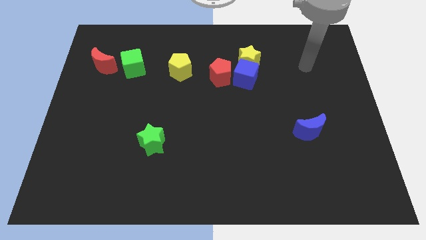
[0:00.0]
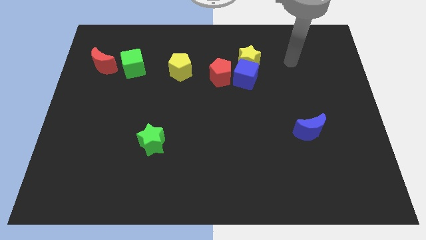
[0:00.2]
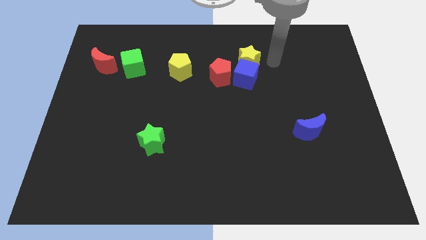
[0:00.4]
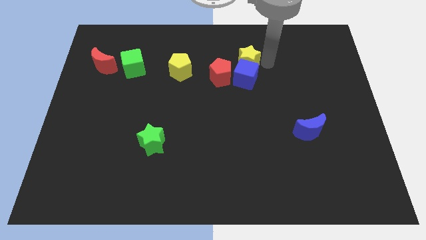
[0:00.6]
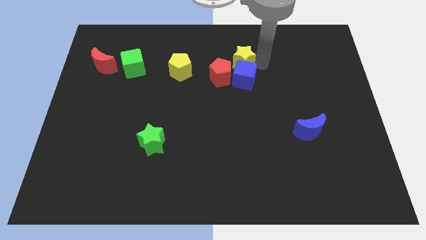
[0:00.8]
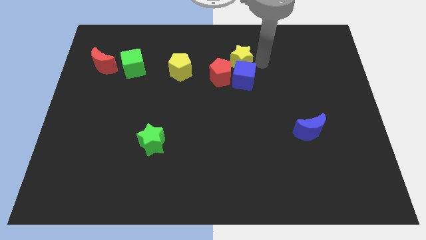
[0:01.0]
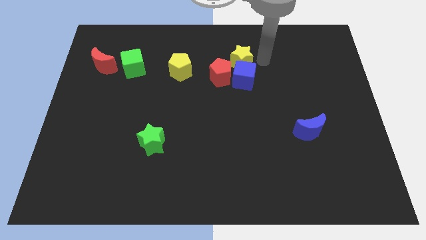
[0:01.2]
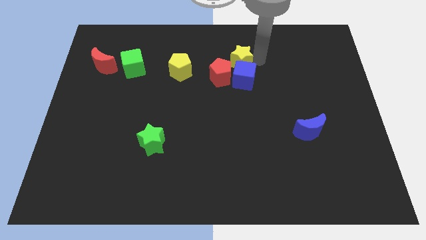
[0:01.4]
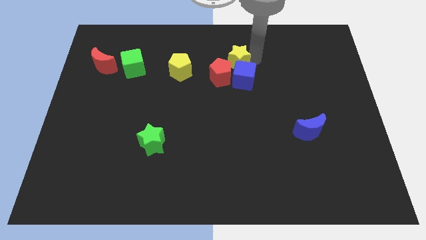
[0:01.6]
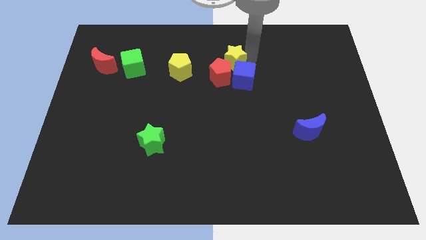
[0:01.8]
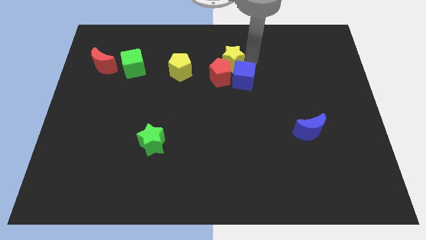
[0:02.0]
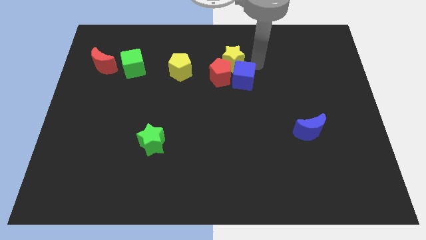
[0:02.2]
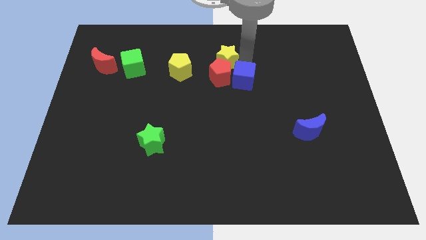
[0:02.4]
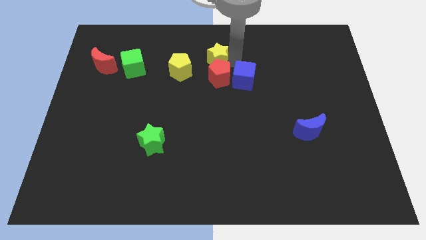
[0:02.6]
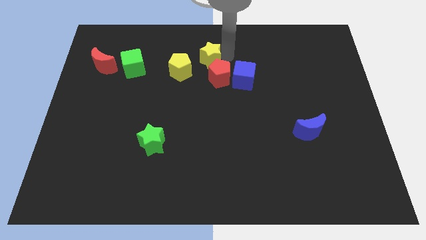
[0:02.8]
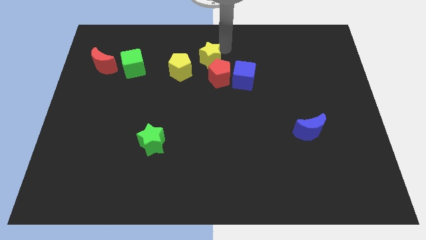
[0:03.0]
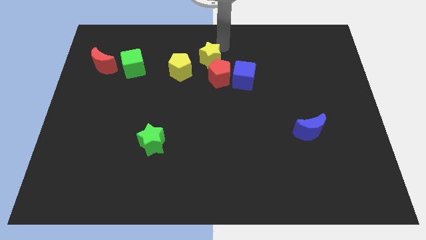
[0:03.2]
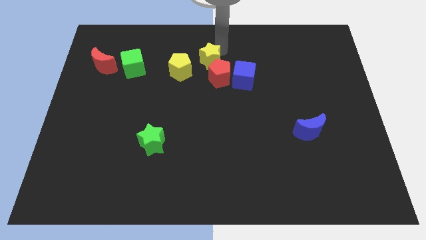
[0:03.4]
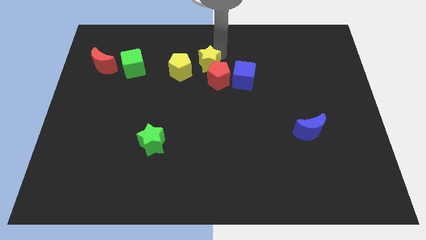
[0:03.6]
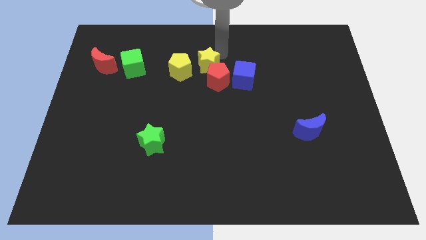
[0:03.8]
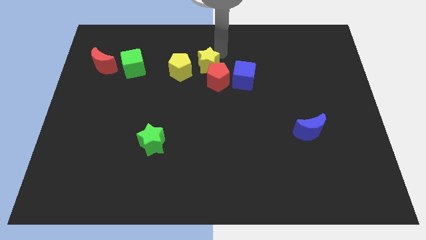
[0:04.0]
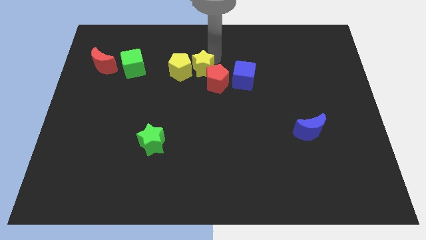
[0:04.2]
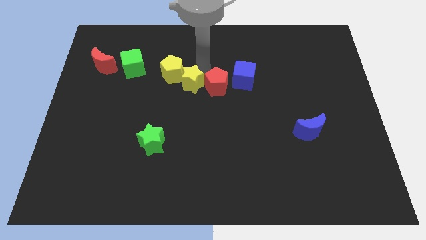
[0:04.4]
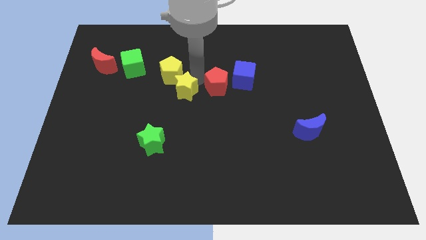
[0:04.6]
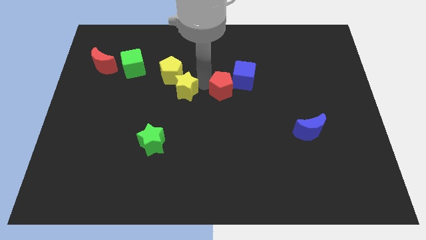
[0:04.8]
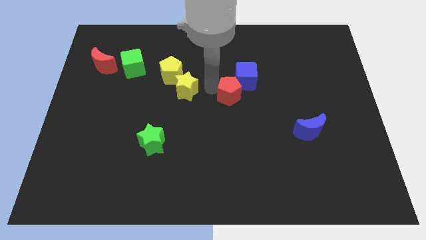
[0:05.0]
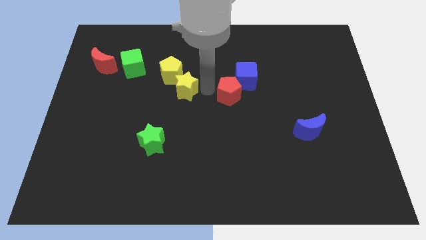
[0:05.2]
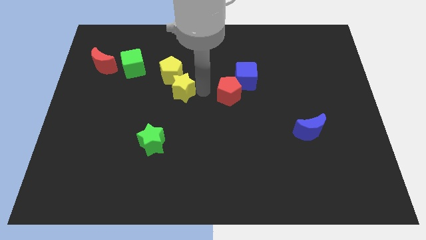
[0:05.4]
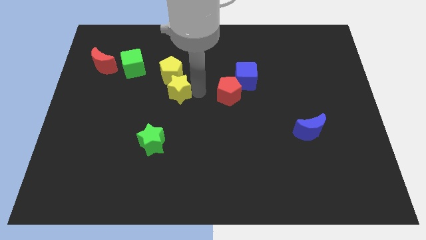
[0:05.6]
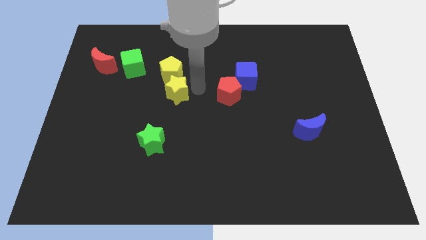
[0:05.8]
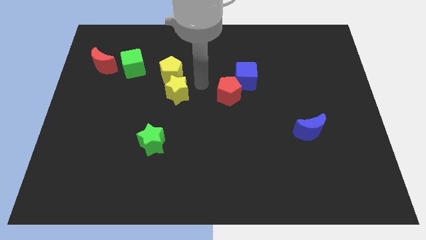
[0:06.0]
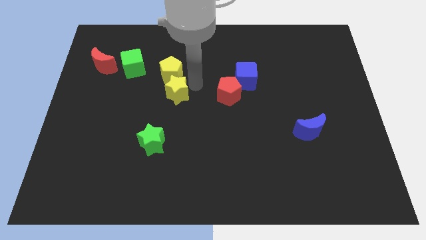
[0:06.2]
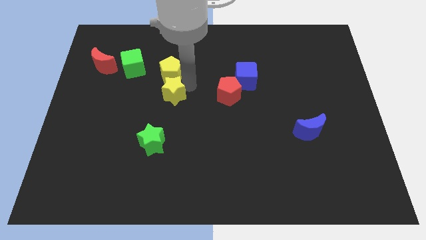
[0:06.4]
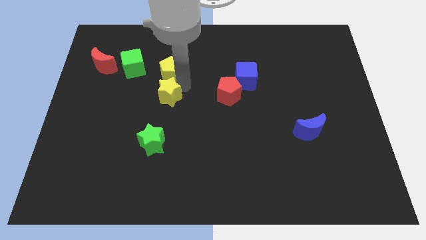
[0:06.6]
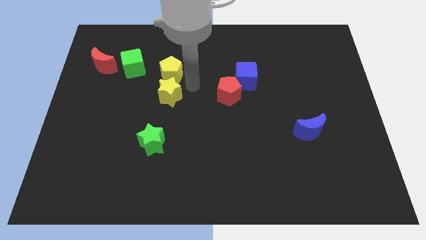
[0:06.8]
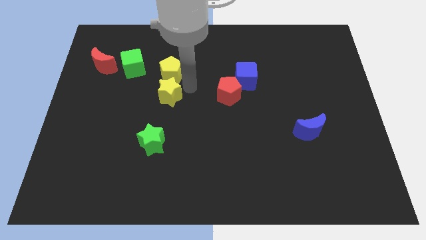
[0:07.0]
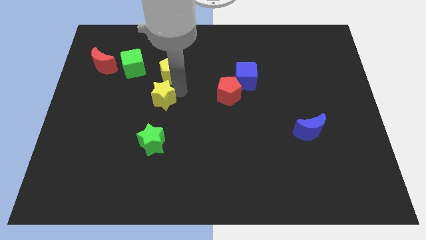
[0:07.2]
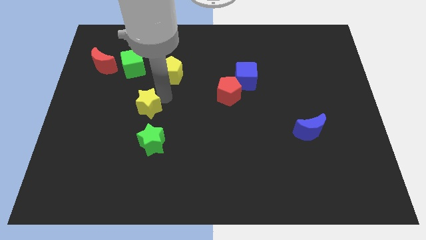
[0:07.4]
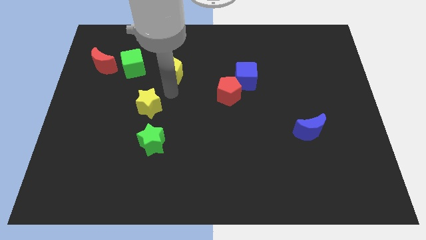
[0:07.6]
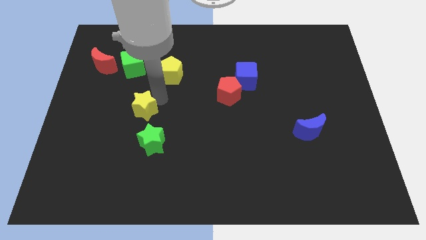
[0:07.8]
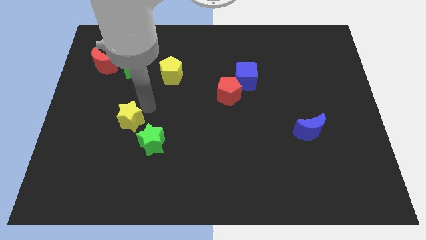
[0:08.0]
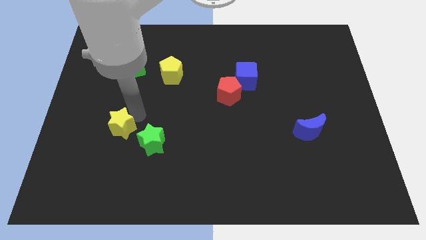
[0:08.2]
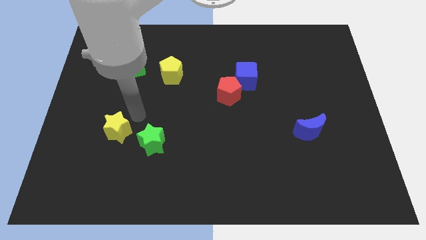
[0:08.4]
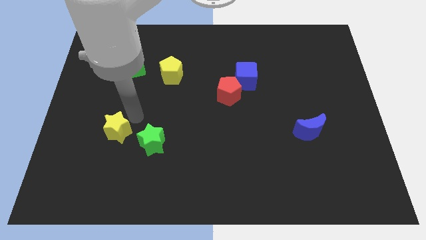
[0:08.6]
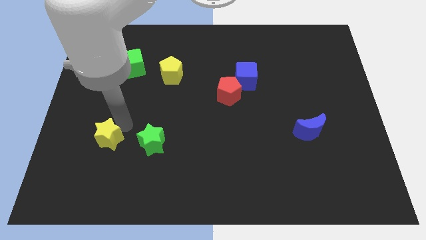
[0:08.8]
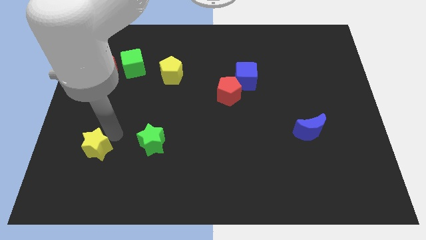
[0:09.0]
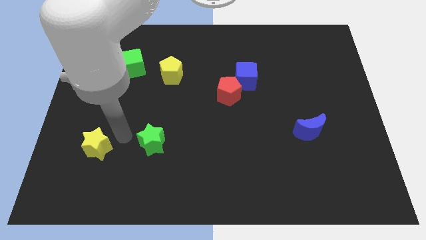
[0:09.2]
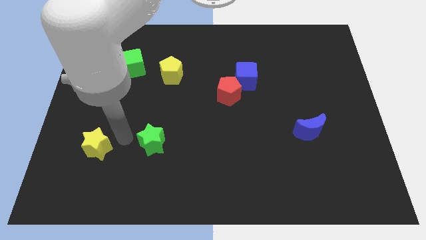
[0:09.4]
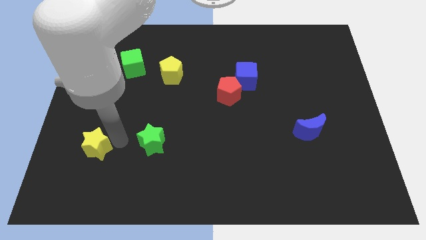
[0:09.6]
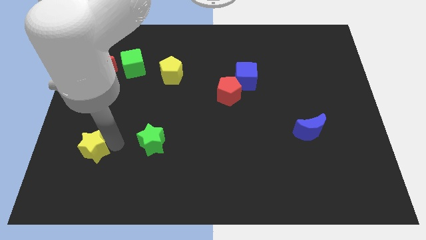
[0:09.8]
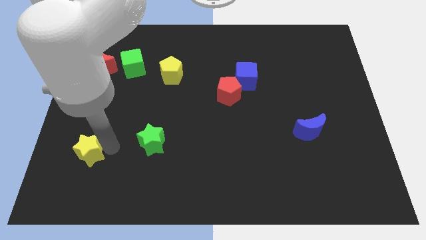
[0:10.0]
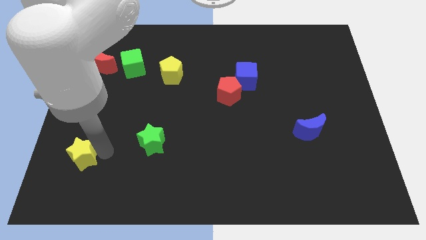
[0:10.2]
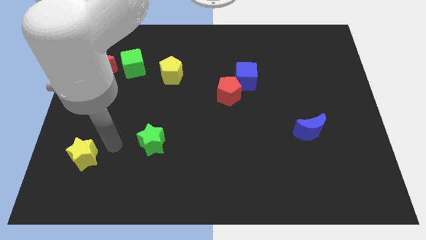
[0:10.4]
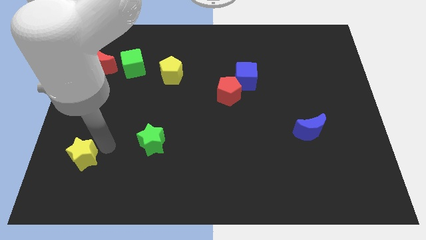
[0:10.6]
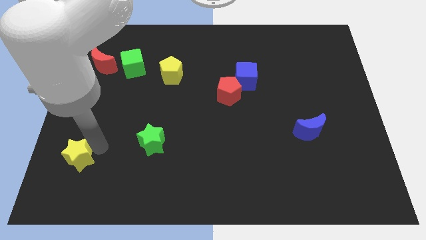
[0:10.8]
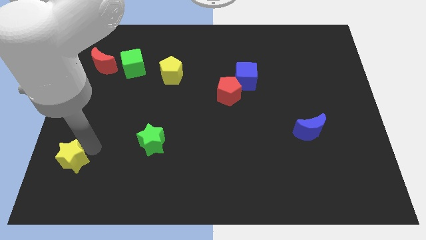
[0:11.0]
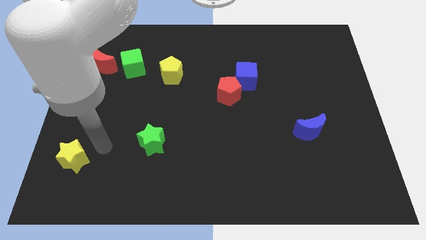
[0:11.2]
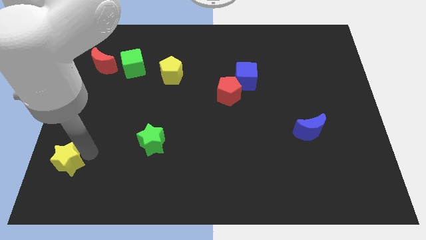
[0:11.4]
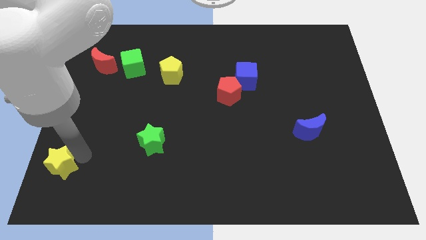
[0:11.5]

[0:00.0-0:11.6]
slide the yellow star to the bottom left of the board

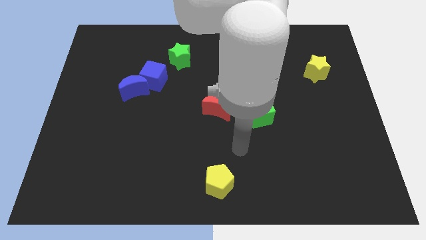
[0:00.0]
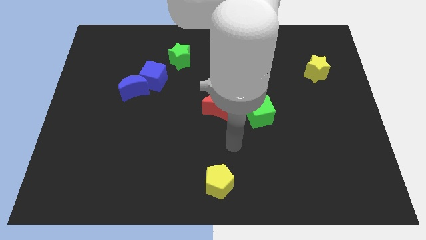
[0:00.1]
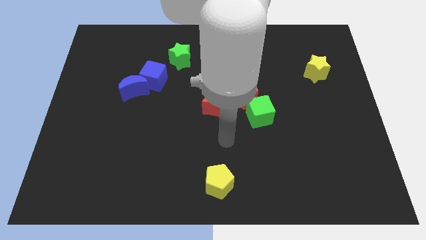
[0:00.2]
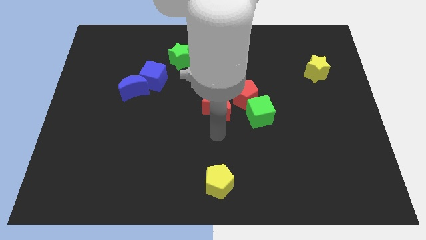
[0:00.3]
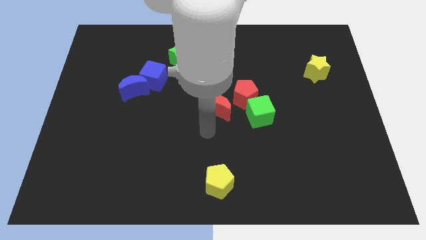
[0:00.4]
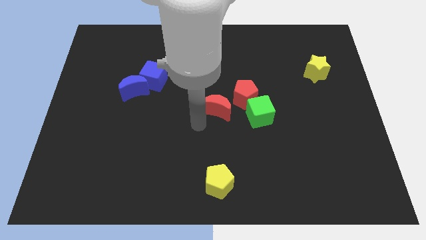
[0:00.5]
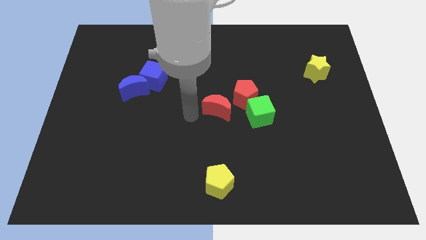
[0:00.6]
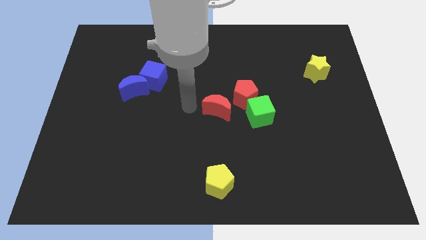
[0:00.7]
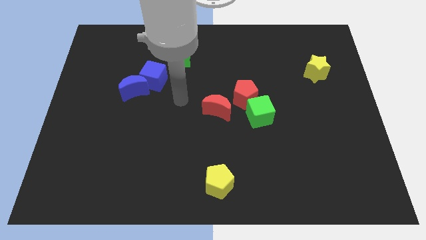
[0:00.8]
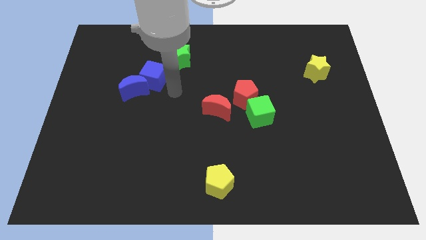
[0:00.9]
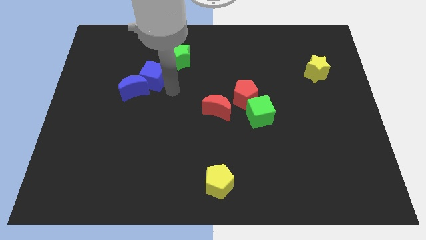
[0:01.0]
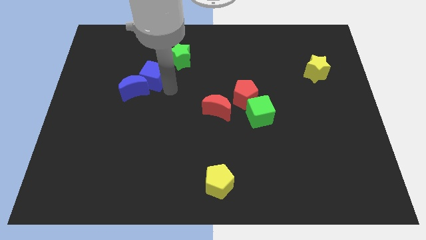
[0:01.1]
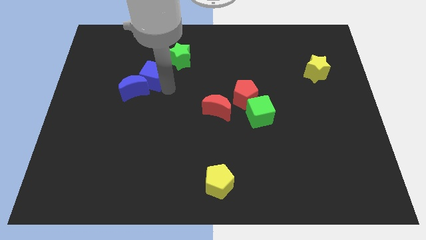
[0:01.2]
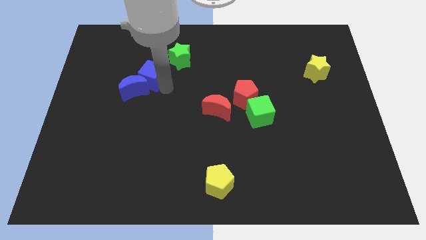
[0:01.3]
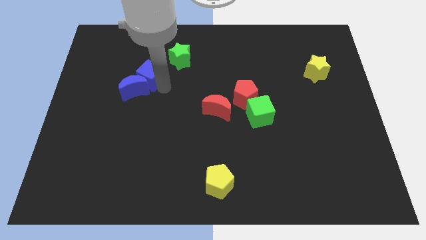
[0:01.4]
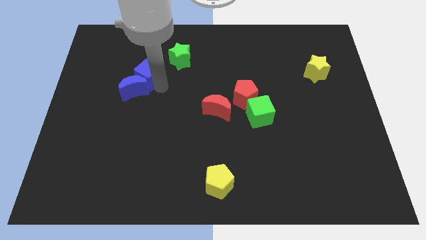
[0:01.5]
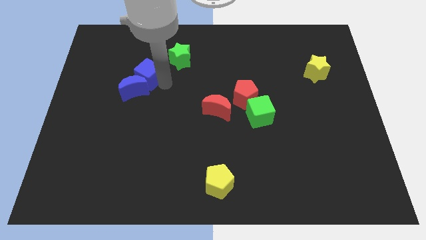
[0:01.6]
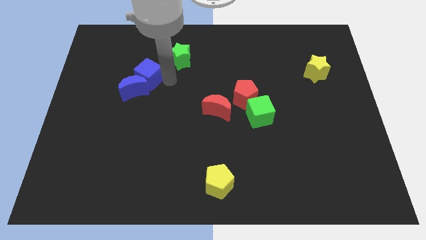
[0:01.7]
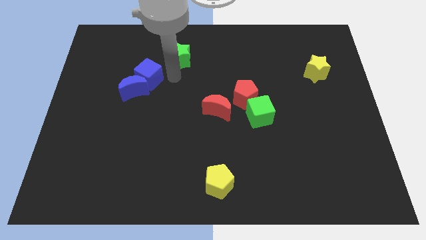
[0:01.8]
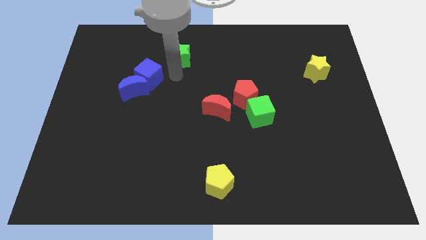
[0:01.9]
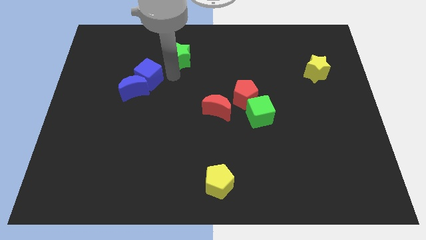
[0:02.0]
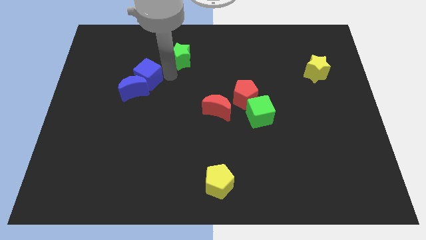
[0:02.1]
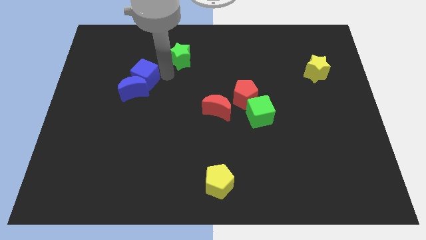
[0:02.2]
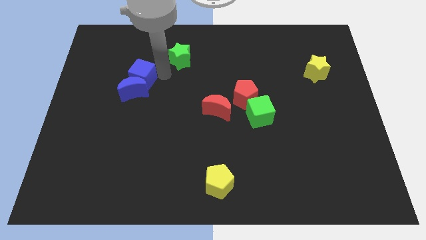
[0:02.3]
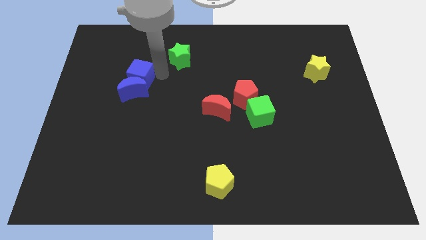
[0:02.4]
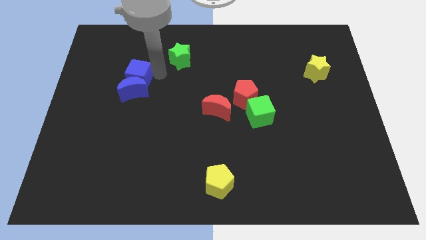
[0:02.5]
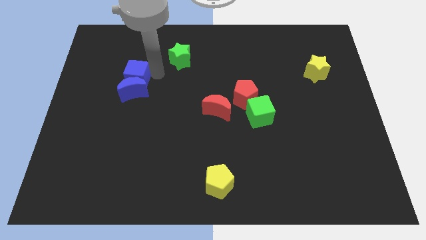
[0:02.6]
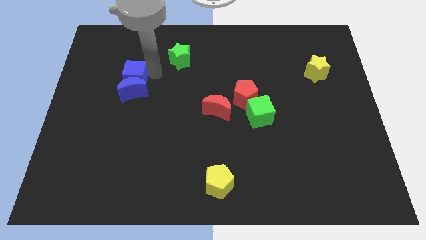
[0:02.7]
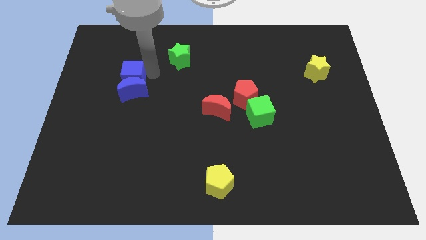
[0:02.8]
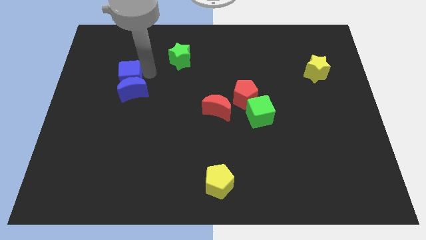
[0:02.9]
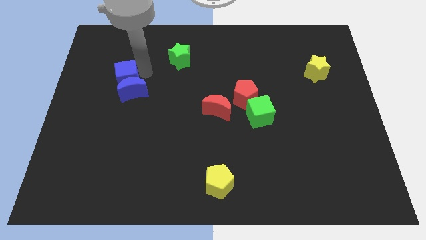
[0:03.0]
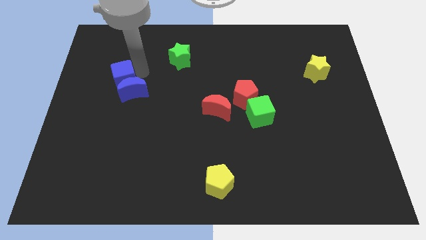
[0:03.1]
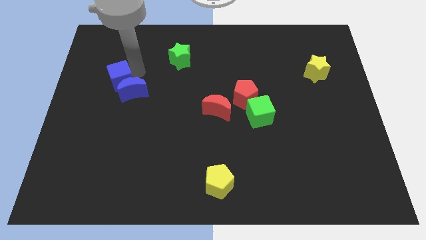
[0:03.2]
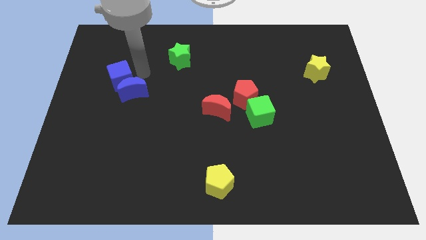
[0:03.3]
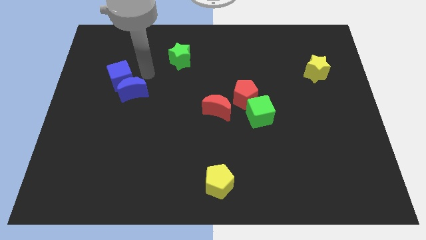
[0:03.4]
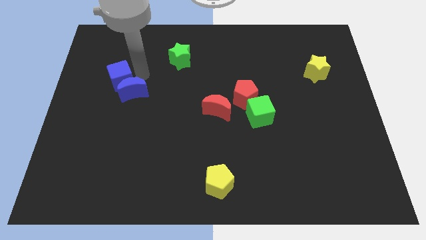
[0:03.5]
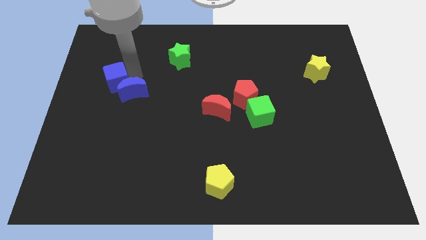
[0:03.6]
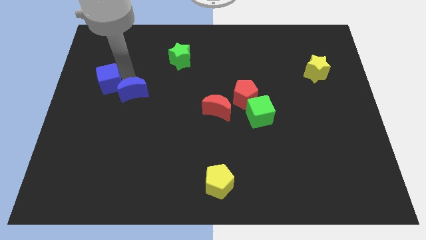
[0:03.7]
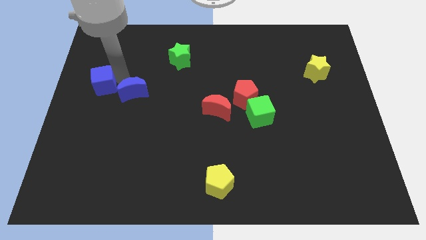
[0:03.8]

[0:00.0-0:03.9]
move the blue cube to the center left
